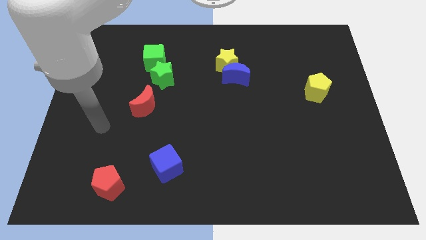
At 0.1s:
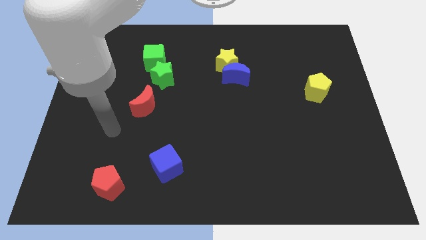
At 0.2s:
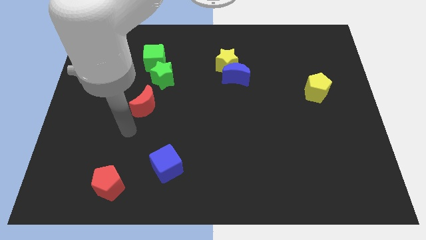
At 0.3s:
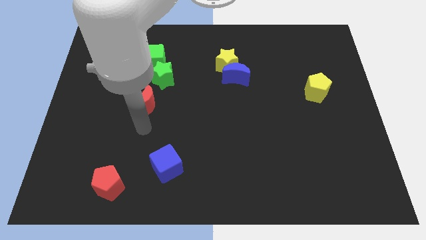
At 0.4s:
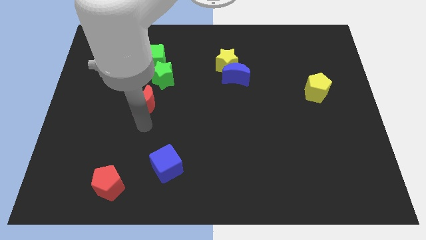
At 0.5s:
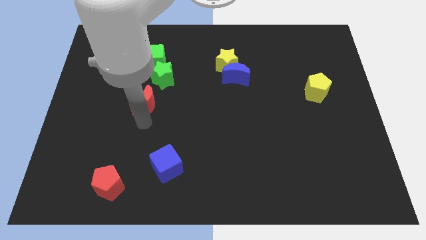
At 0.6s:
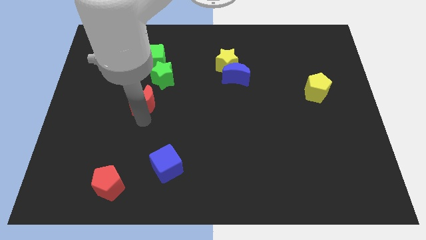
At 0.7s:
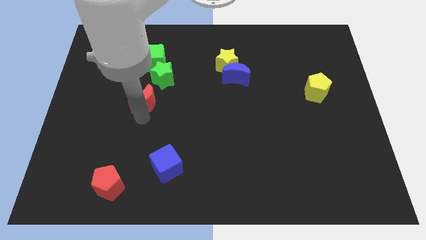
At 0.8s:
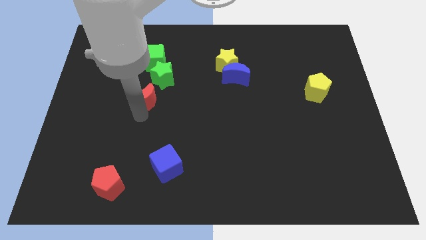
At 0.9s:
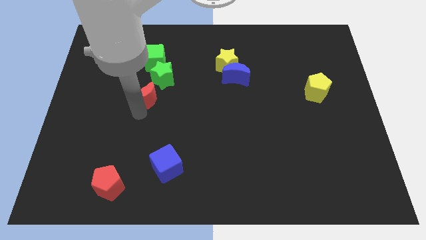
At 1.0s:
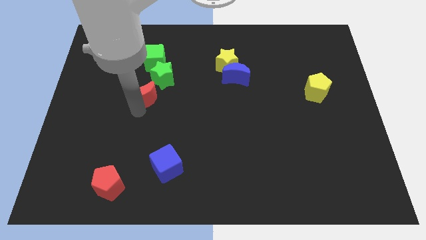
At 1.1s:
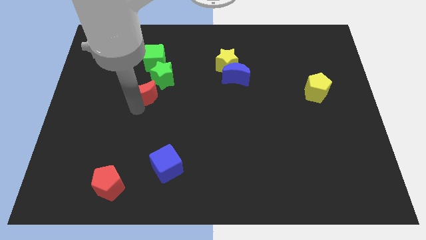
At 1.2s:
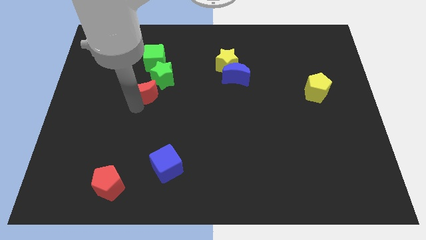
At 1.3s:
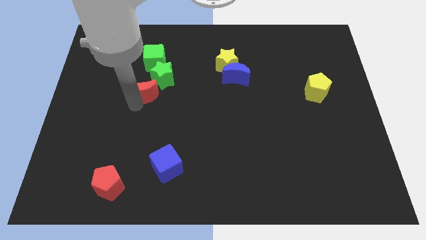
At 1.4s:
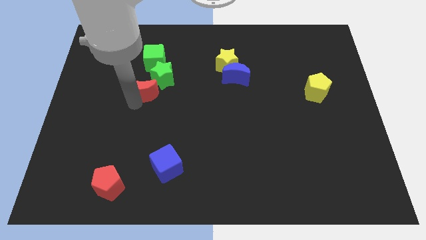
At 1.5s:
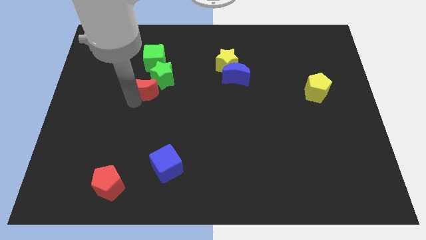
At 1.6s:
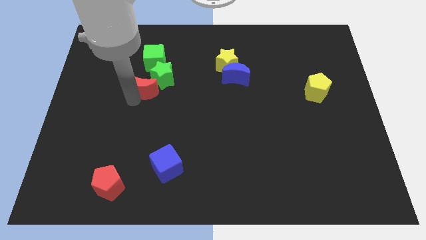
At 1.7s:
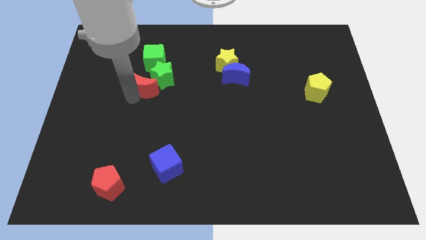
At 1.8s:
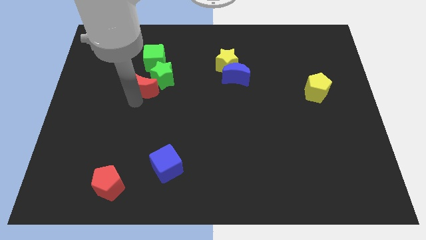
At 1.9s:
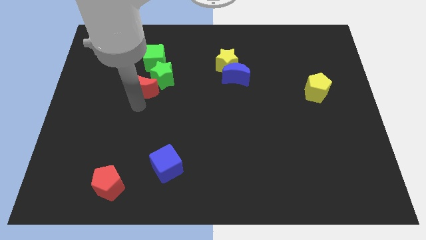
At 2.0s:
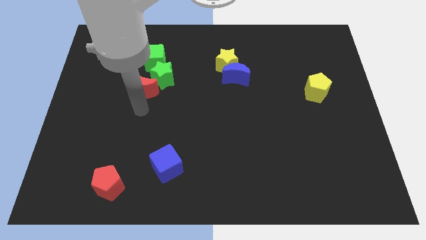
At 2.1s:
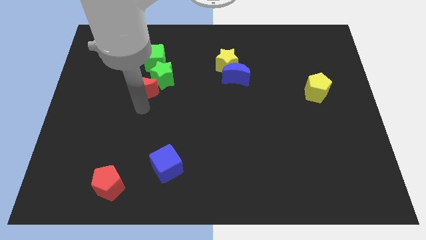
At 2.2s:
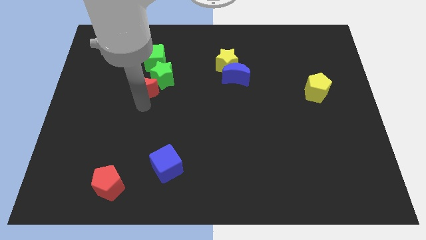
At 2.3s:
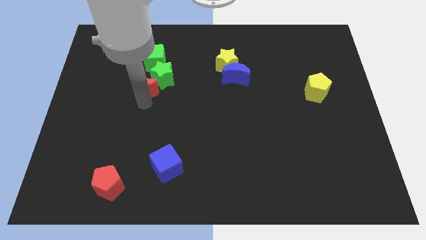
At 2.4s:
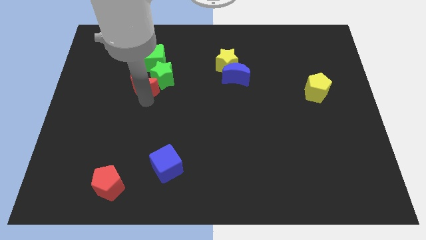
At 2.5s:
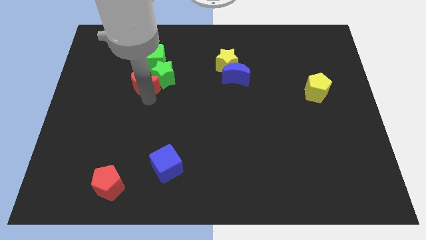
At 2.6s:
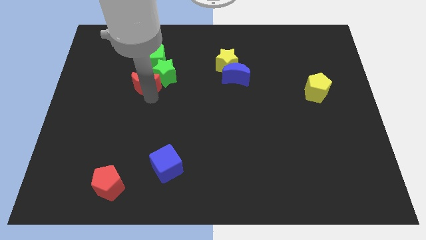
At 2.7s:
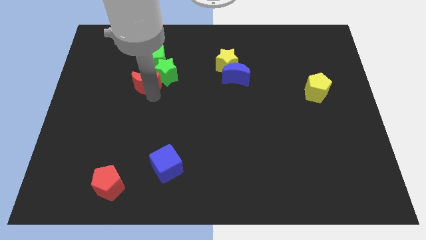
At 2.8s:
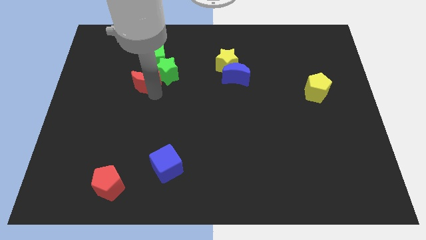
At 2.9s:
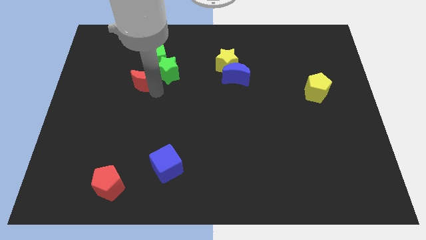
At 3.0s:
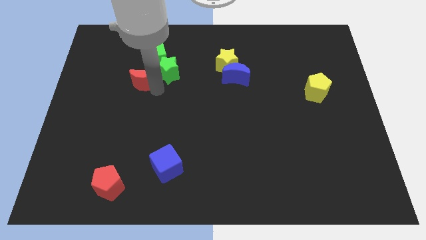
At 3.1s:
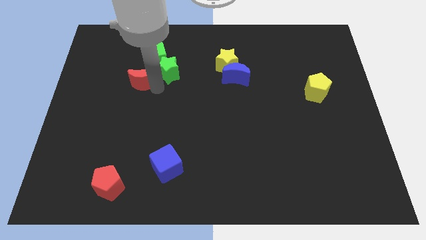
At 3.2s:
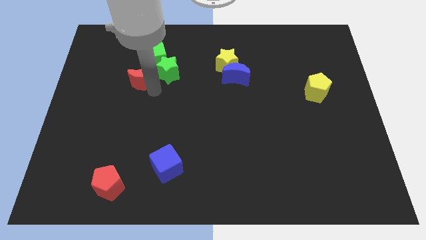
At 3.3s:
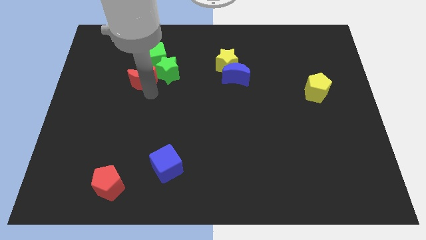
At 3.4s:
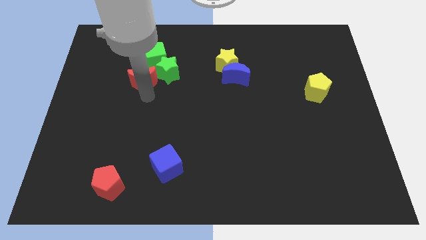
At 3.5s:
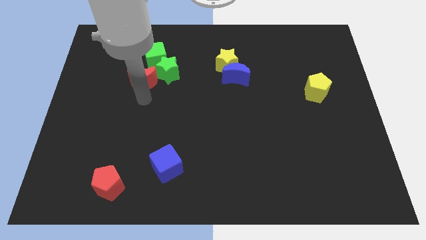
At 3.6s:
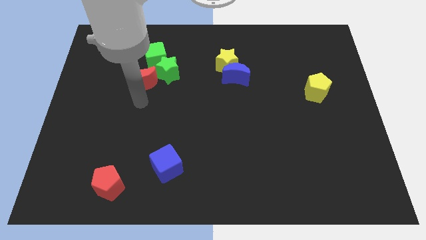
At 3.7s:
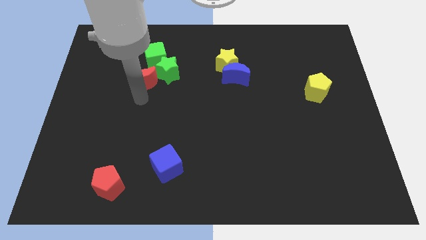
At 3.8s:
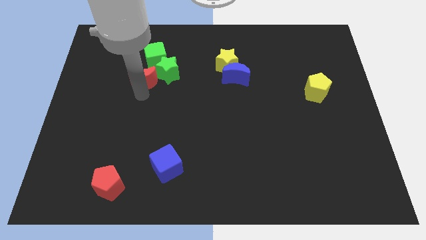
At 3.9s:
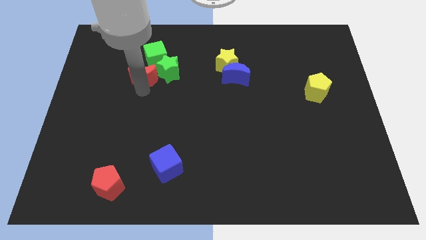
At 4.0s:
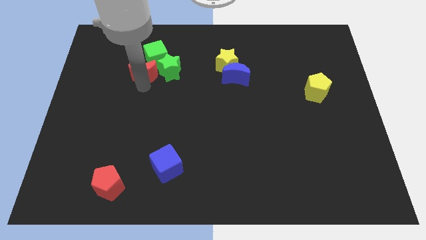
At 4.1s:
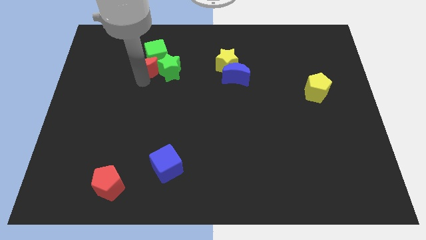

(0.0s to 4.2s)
move the red moon towards the green cube

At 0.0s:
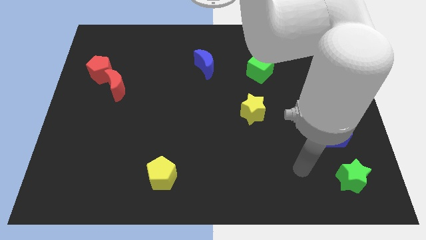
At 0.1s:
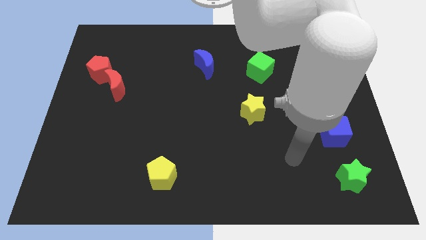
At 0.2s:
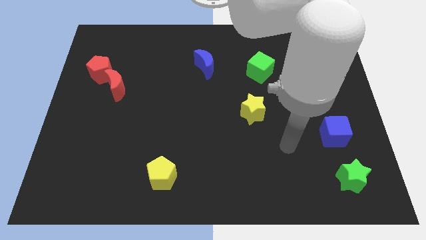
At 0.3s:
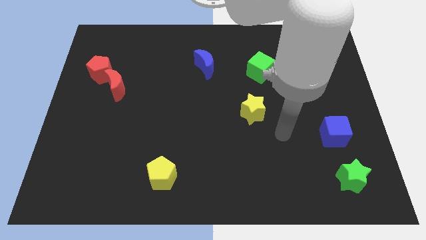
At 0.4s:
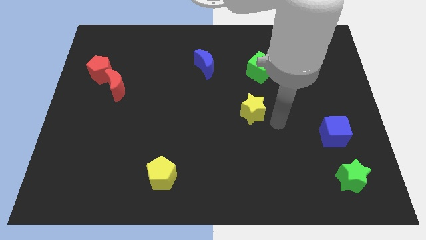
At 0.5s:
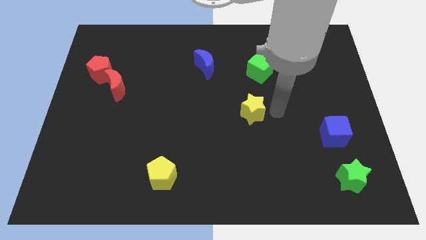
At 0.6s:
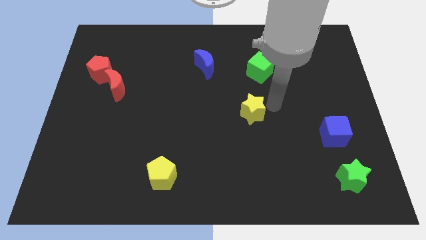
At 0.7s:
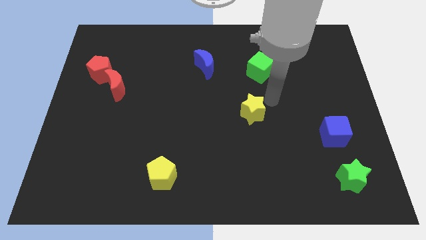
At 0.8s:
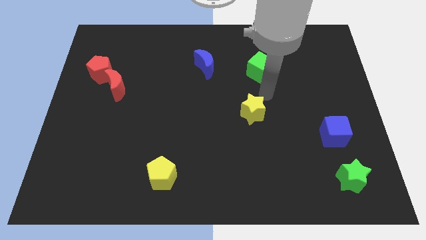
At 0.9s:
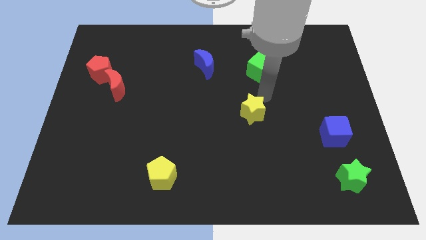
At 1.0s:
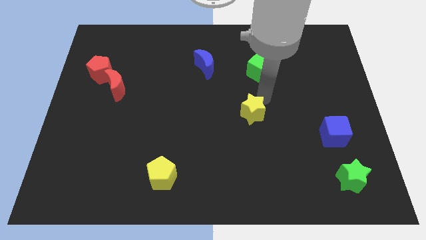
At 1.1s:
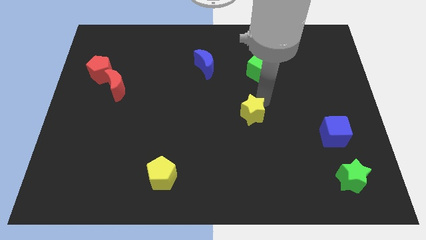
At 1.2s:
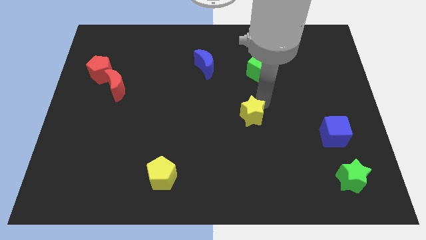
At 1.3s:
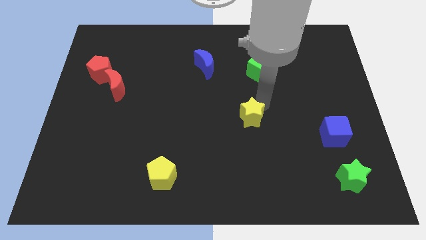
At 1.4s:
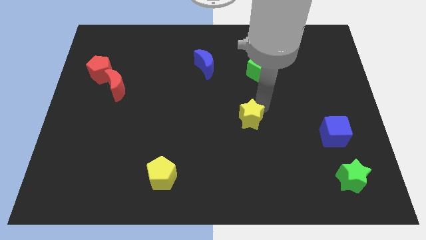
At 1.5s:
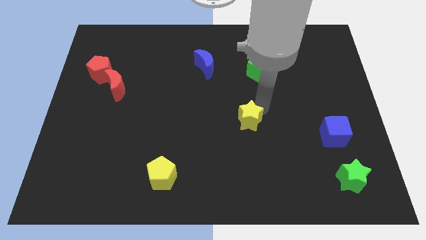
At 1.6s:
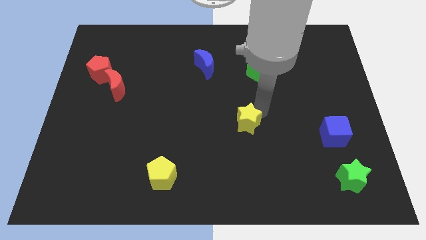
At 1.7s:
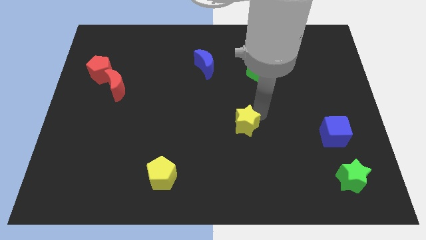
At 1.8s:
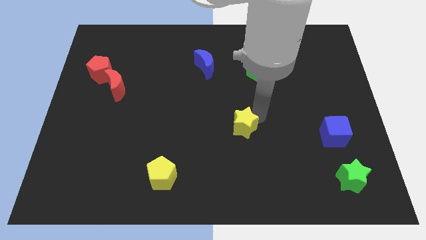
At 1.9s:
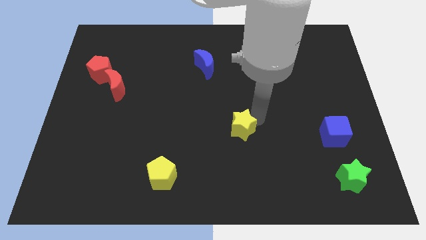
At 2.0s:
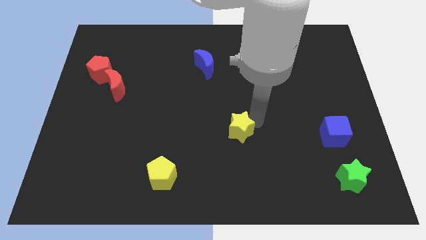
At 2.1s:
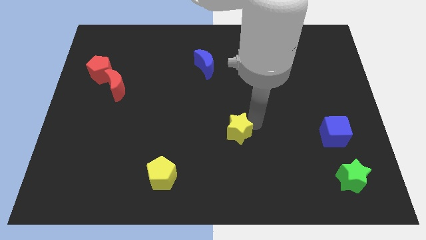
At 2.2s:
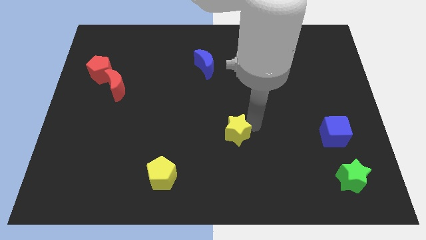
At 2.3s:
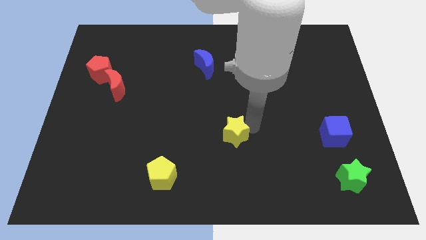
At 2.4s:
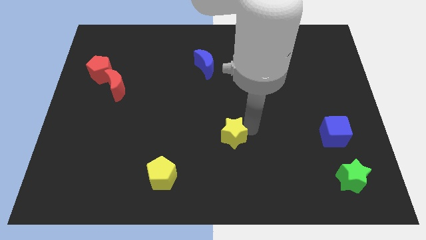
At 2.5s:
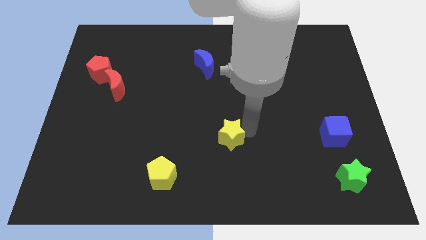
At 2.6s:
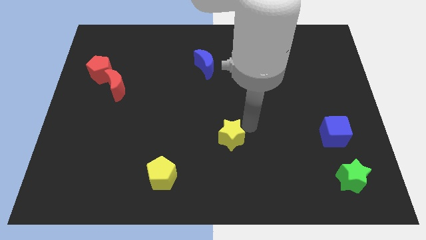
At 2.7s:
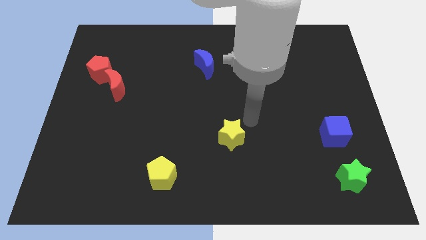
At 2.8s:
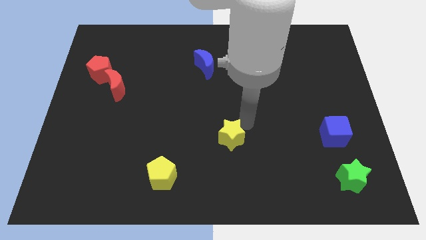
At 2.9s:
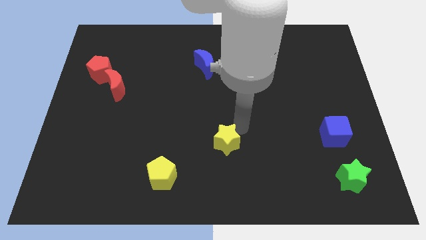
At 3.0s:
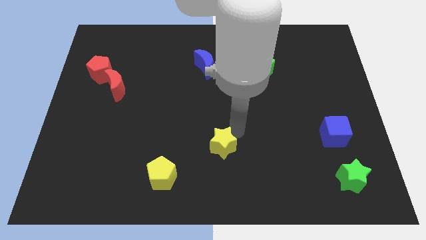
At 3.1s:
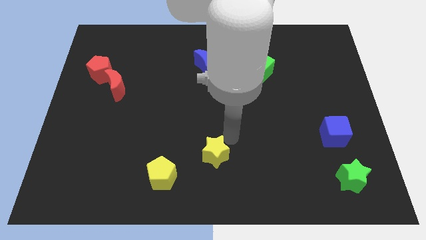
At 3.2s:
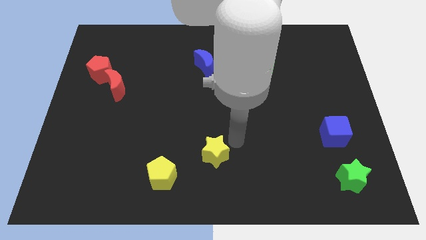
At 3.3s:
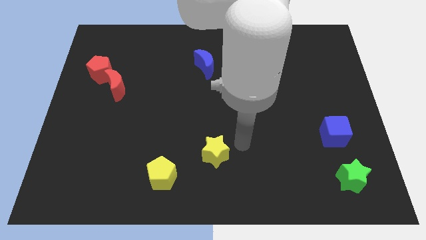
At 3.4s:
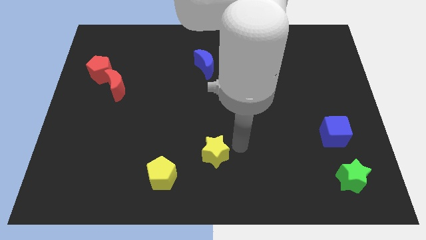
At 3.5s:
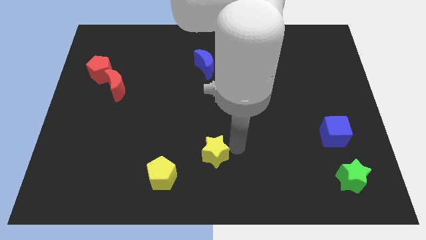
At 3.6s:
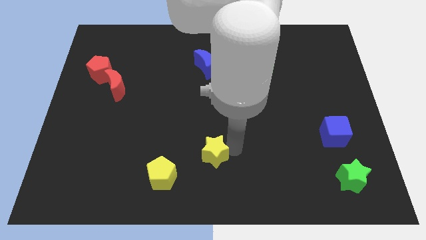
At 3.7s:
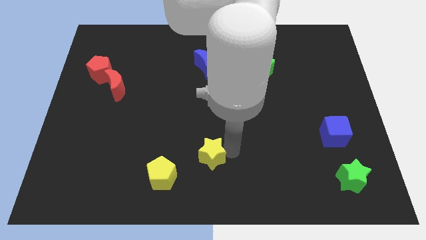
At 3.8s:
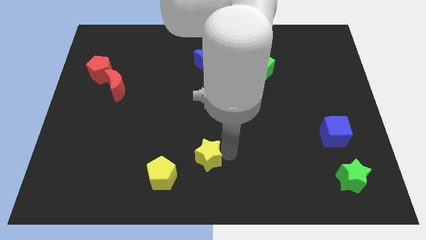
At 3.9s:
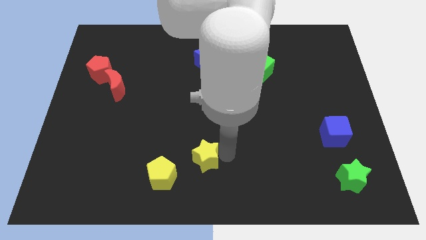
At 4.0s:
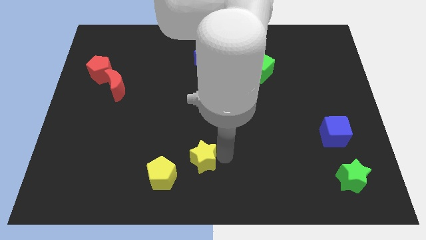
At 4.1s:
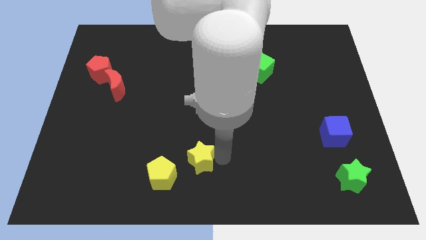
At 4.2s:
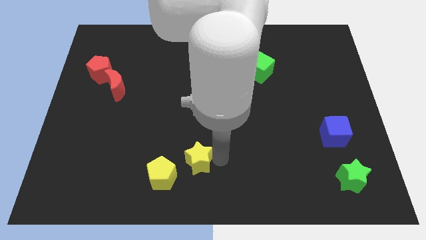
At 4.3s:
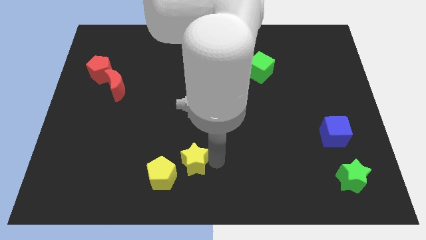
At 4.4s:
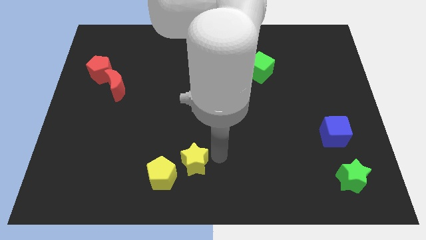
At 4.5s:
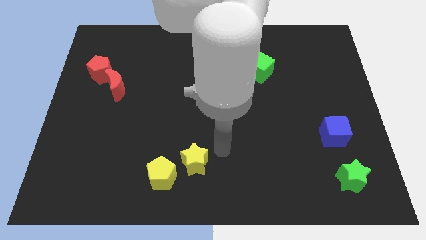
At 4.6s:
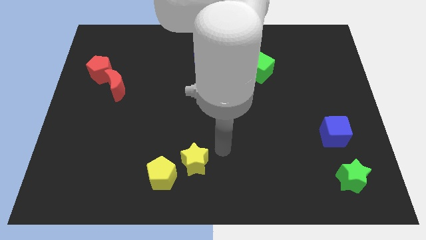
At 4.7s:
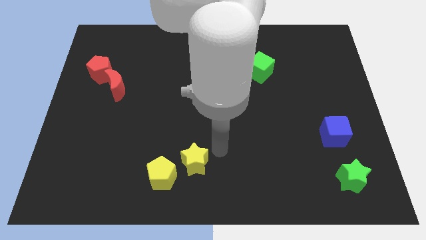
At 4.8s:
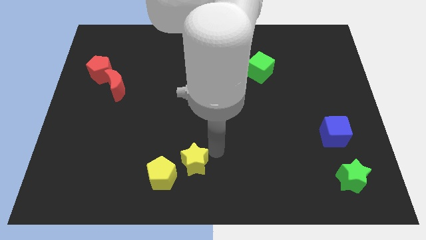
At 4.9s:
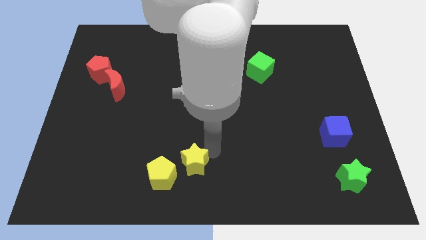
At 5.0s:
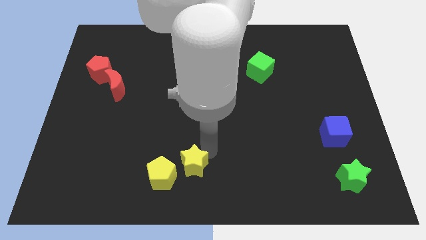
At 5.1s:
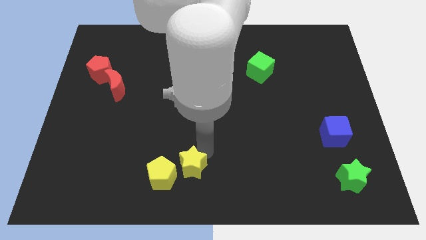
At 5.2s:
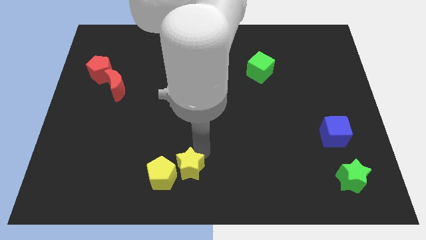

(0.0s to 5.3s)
slide the yellow star to the yellow pentagon
